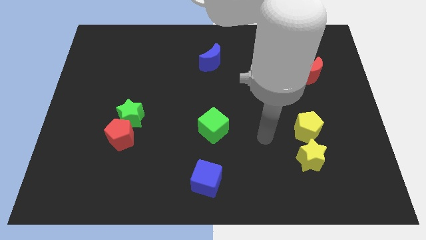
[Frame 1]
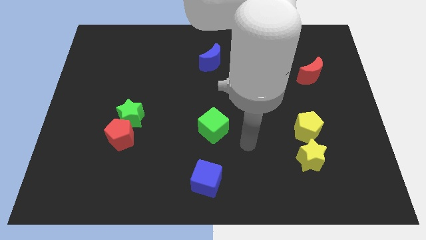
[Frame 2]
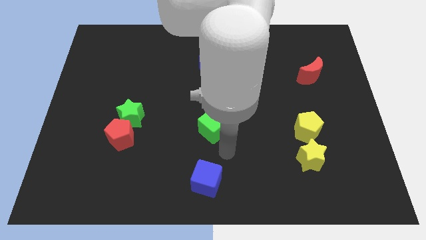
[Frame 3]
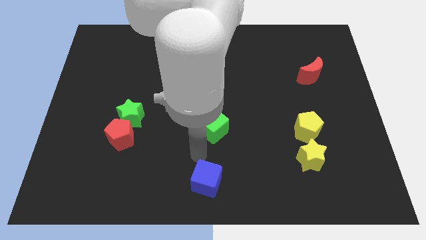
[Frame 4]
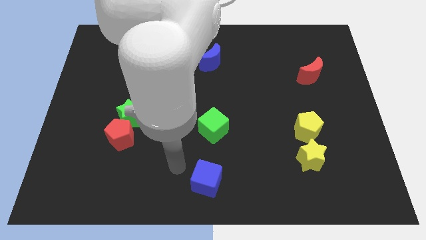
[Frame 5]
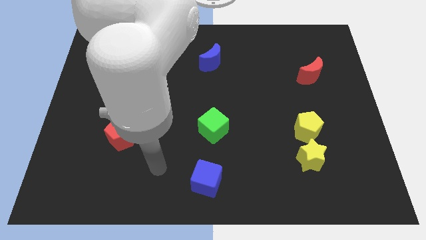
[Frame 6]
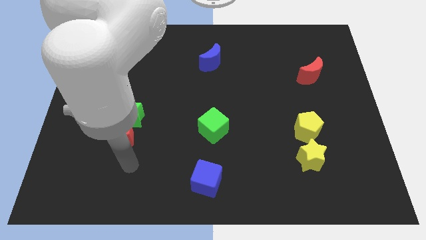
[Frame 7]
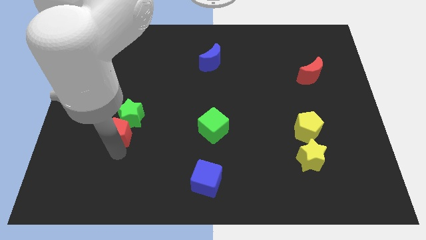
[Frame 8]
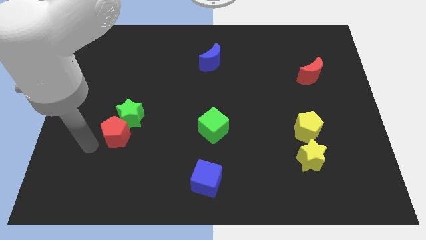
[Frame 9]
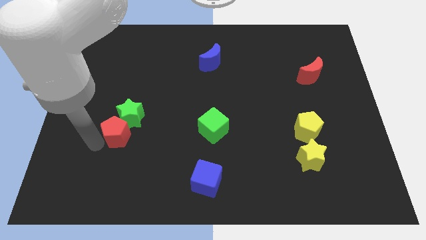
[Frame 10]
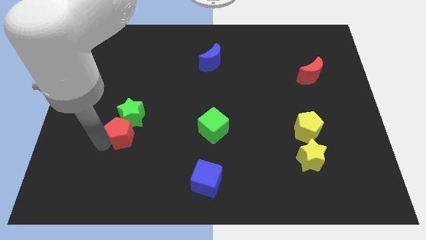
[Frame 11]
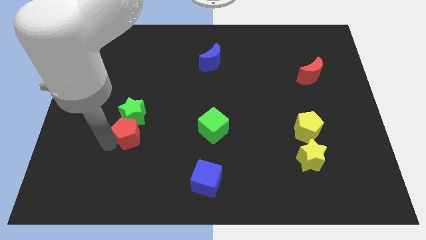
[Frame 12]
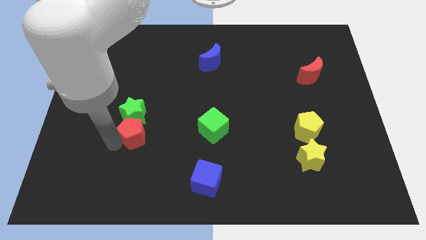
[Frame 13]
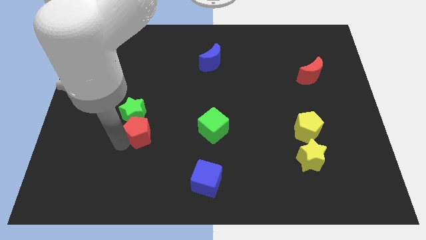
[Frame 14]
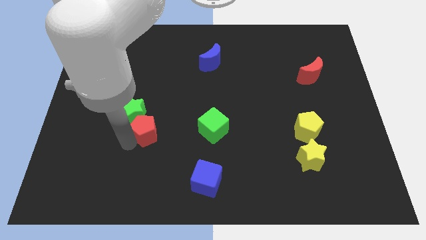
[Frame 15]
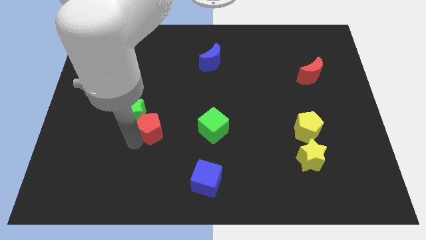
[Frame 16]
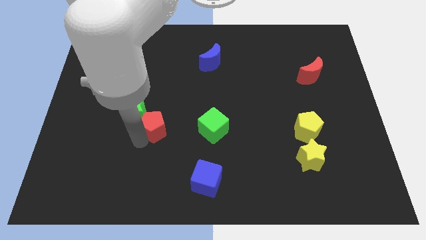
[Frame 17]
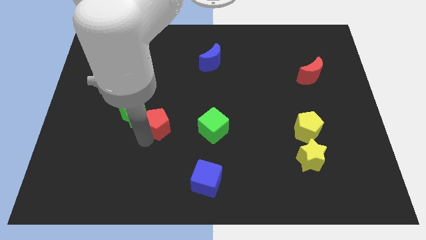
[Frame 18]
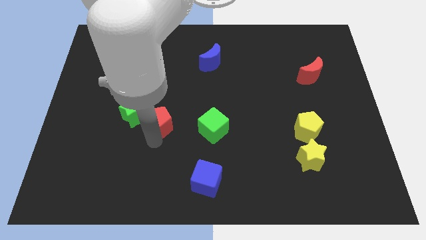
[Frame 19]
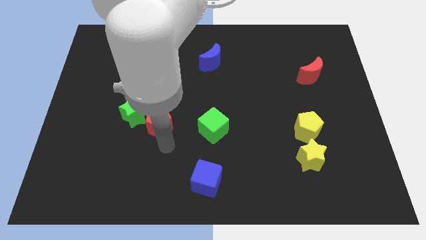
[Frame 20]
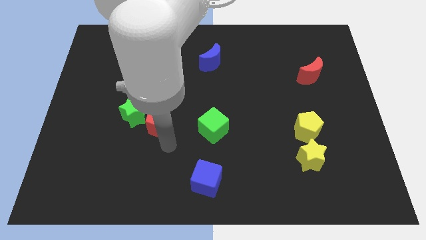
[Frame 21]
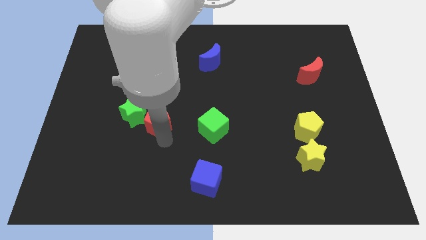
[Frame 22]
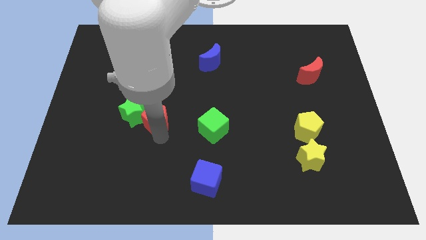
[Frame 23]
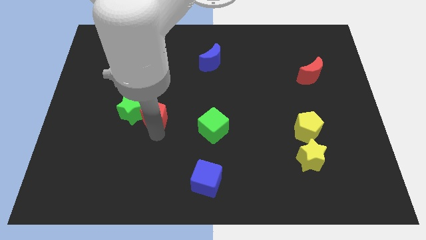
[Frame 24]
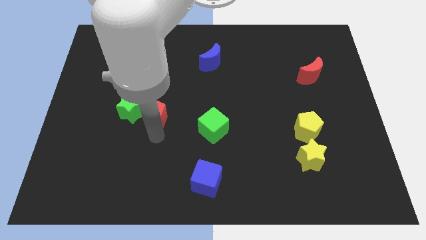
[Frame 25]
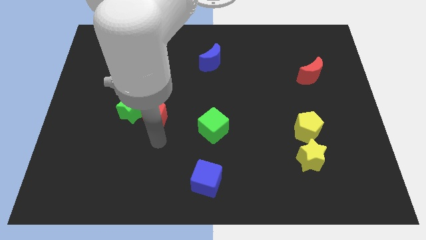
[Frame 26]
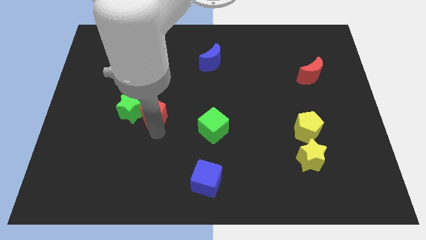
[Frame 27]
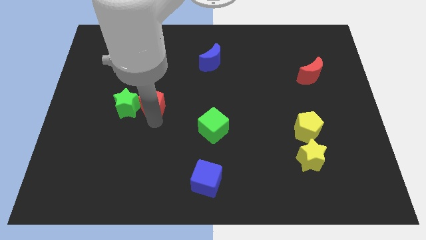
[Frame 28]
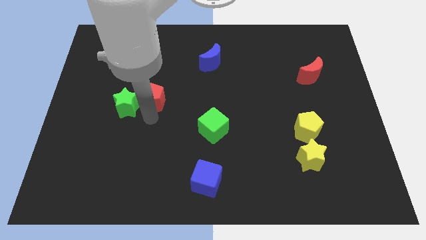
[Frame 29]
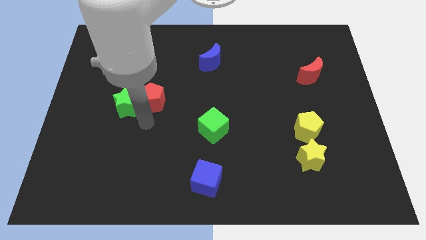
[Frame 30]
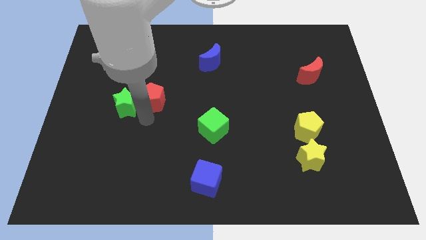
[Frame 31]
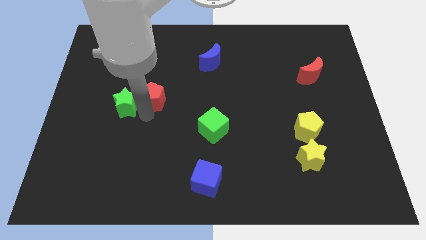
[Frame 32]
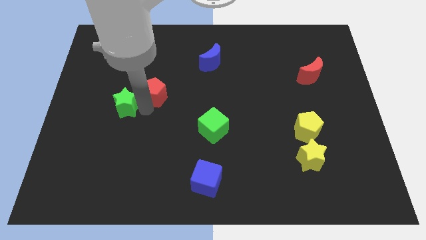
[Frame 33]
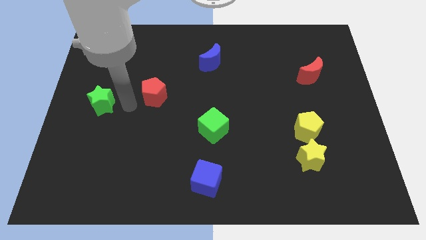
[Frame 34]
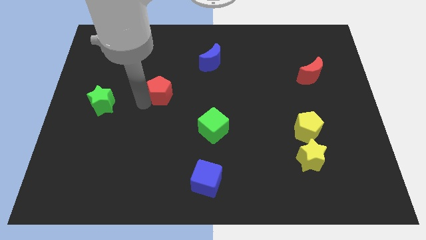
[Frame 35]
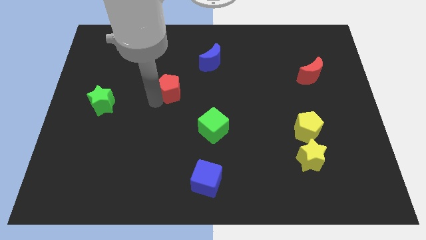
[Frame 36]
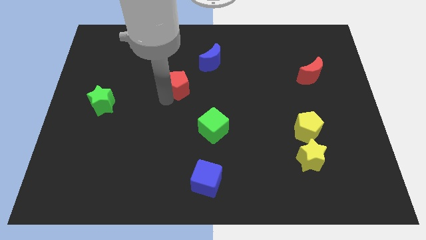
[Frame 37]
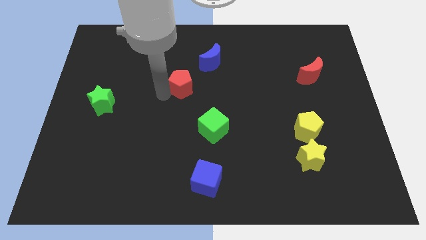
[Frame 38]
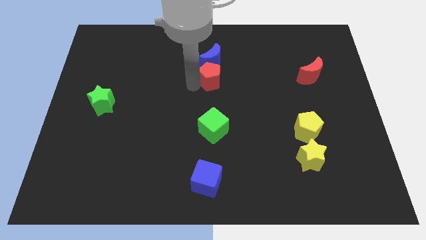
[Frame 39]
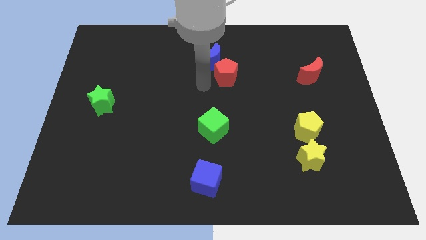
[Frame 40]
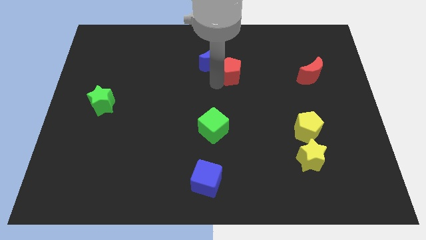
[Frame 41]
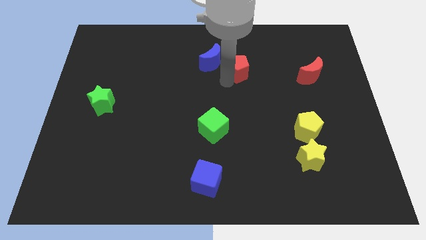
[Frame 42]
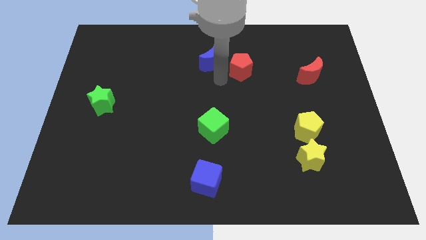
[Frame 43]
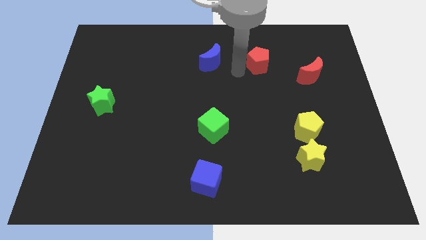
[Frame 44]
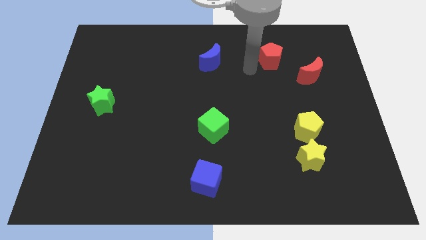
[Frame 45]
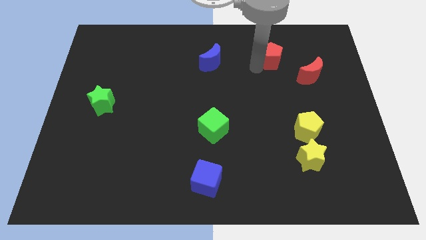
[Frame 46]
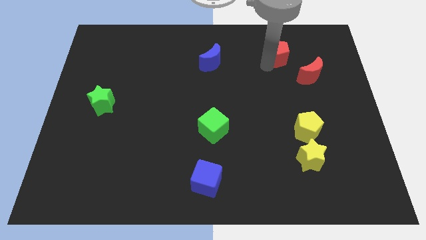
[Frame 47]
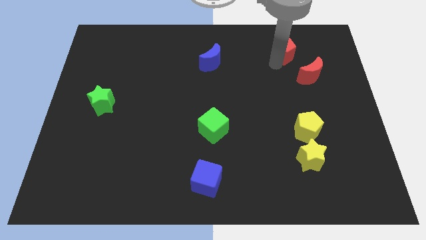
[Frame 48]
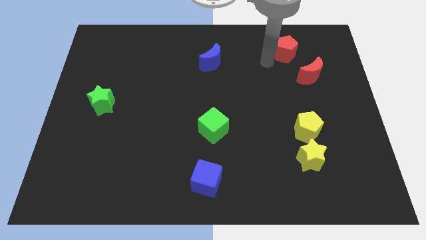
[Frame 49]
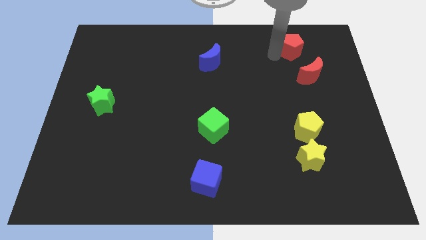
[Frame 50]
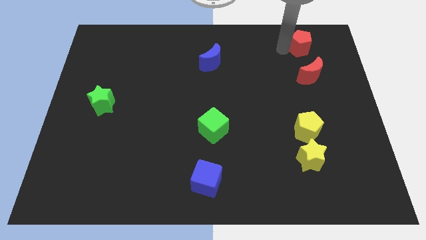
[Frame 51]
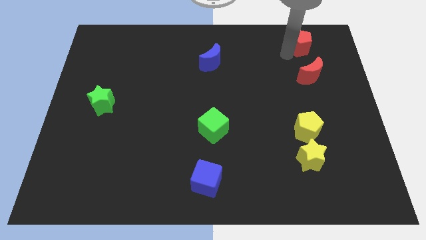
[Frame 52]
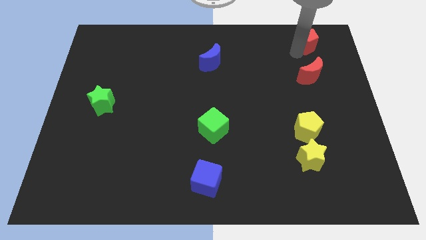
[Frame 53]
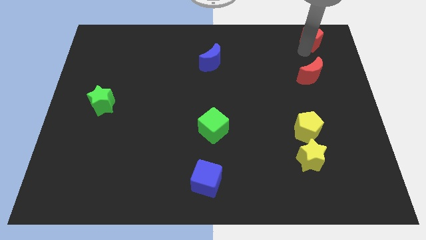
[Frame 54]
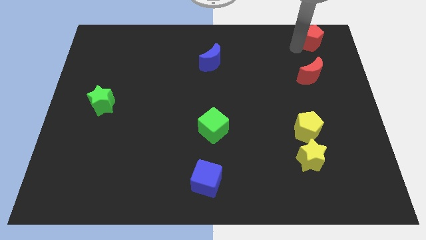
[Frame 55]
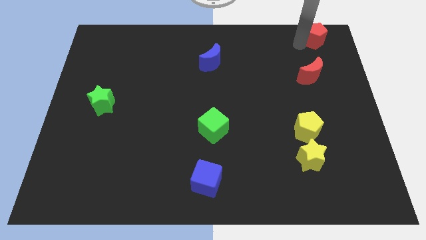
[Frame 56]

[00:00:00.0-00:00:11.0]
move the red pentagon to the top right

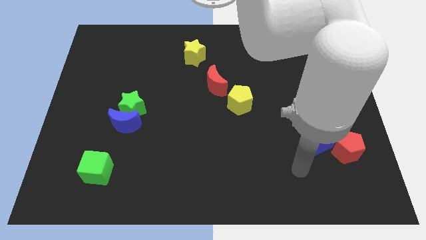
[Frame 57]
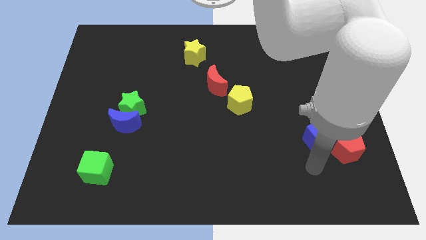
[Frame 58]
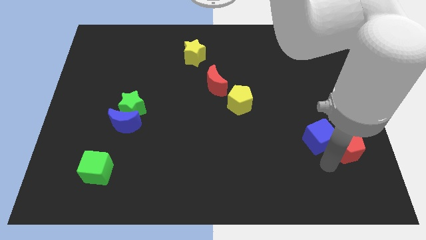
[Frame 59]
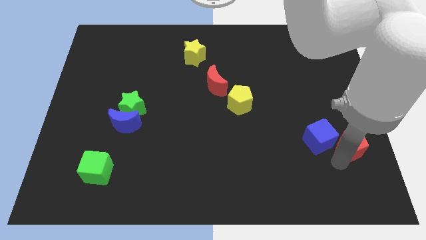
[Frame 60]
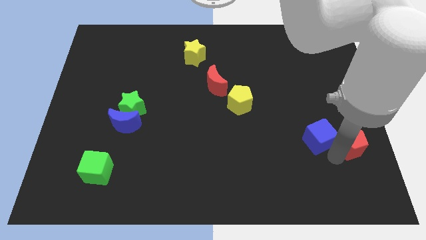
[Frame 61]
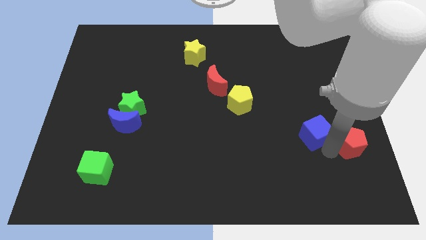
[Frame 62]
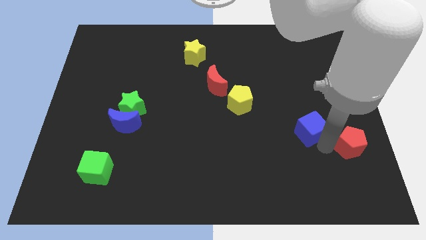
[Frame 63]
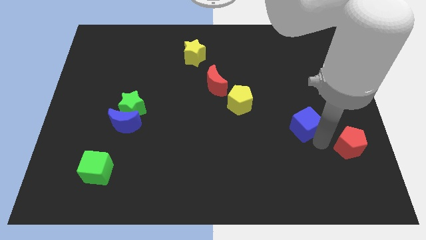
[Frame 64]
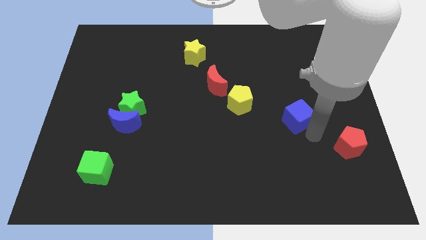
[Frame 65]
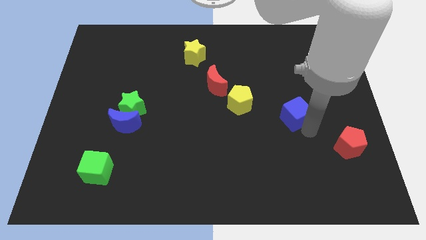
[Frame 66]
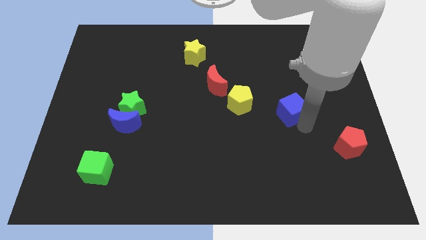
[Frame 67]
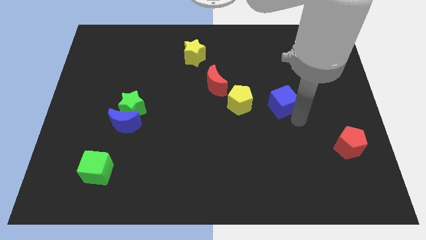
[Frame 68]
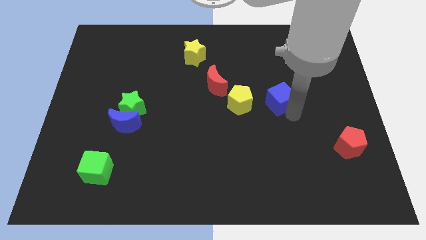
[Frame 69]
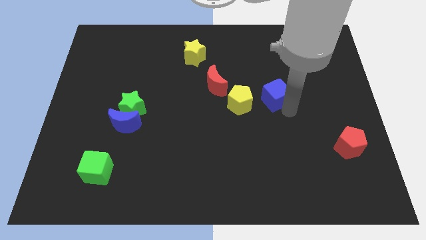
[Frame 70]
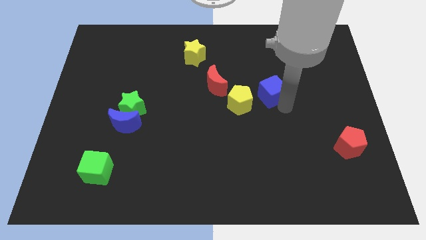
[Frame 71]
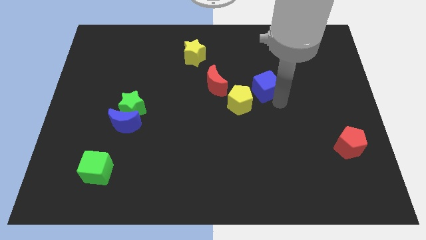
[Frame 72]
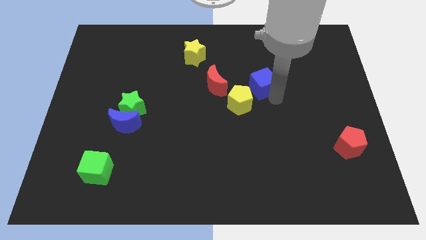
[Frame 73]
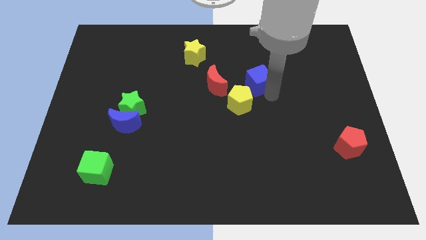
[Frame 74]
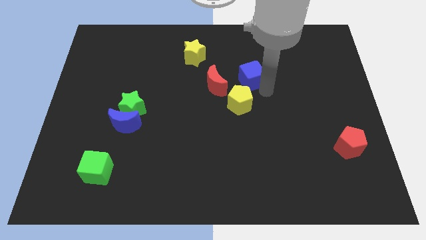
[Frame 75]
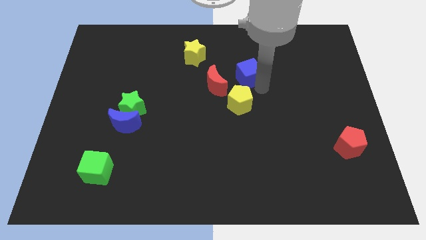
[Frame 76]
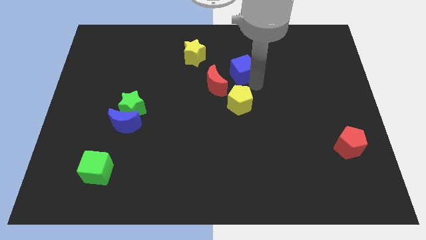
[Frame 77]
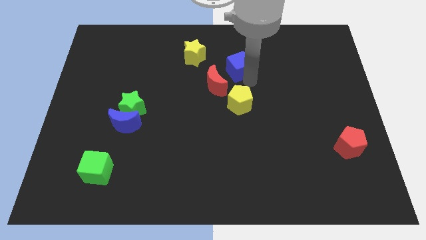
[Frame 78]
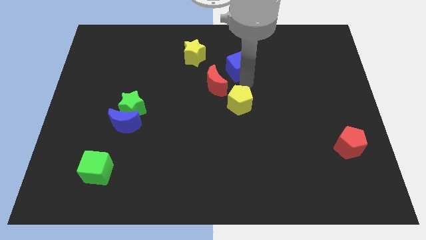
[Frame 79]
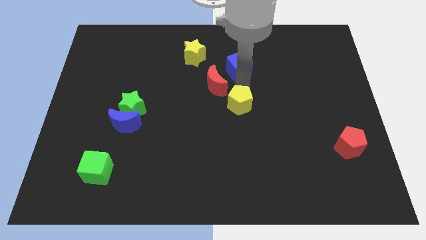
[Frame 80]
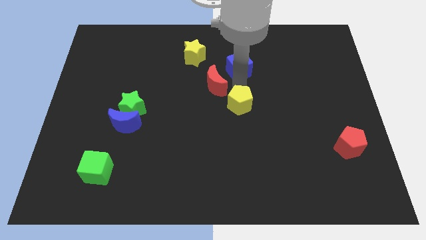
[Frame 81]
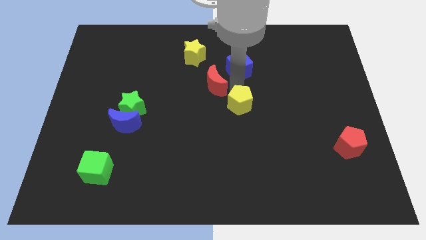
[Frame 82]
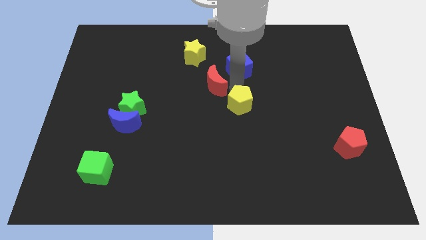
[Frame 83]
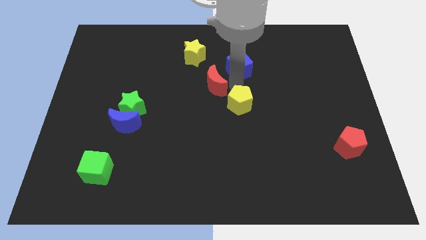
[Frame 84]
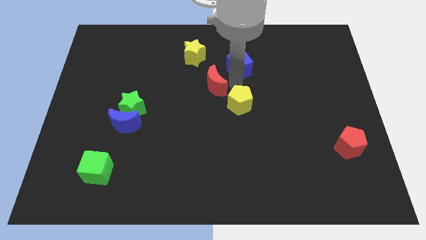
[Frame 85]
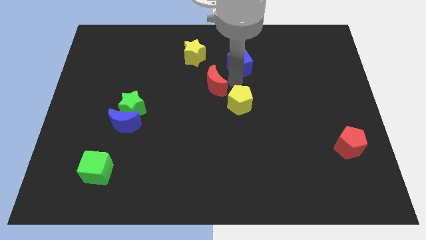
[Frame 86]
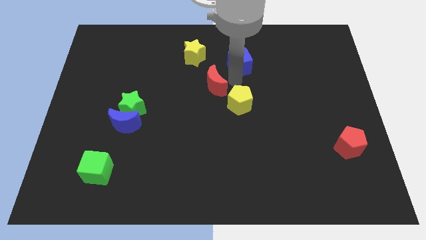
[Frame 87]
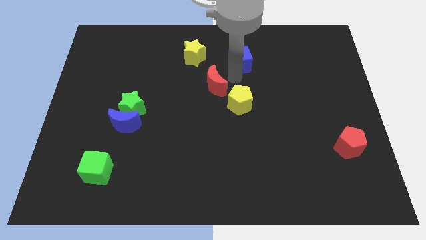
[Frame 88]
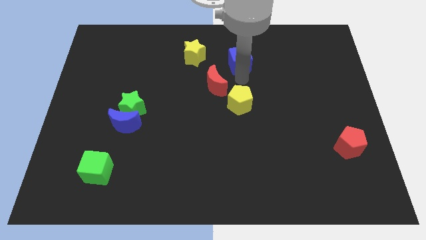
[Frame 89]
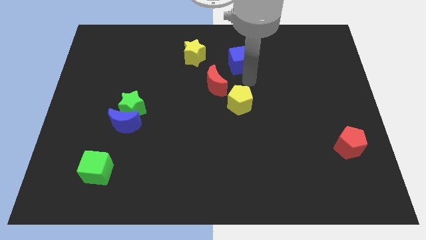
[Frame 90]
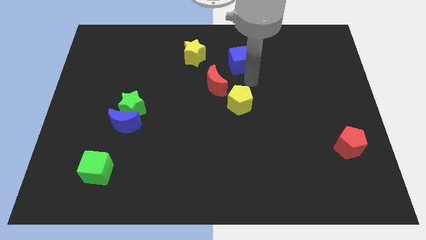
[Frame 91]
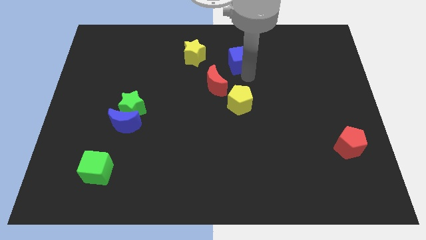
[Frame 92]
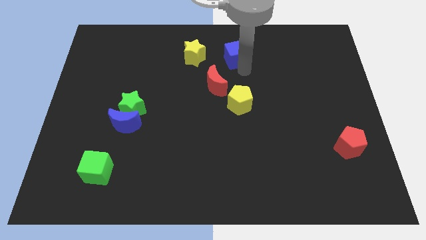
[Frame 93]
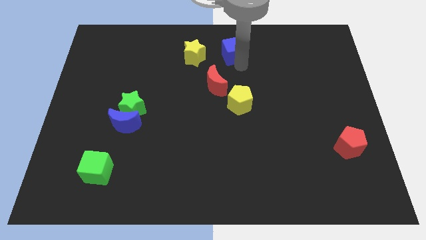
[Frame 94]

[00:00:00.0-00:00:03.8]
push the blue cube to the top side
